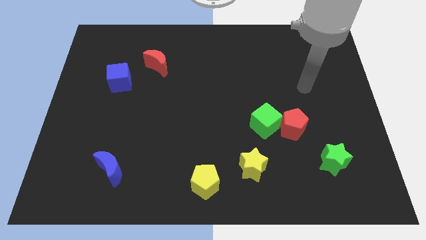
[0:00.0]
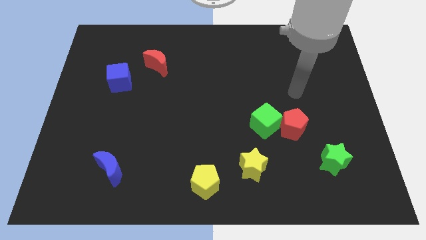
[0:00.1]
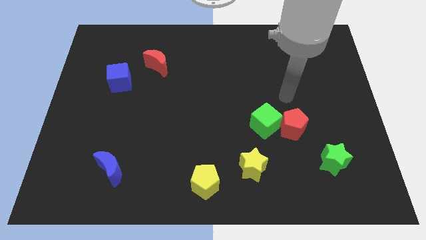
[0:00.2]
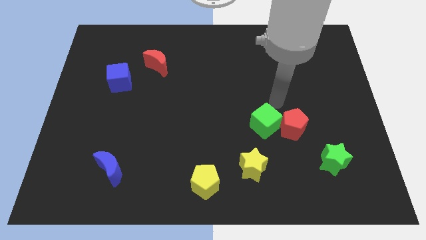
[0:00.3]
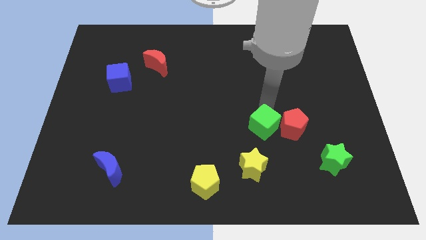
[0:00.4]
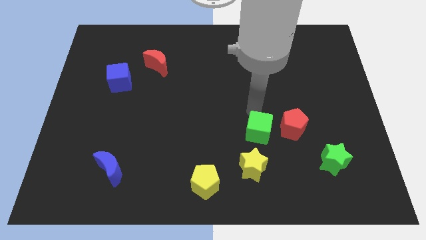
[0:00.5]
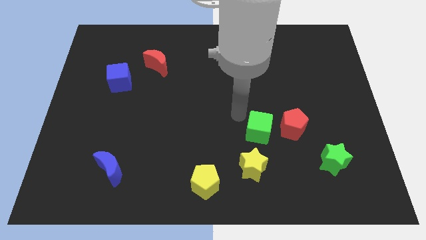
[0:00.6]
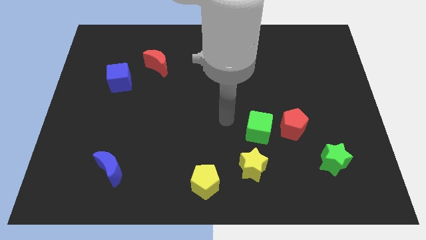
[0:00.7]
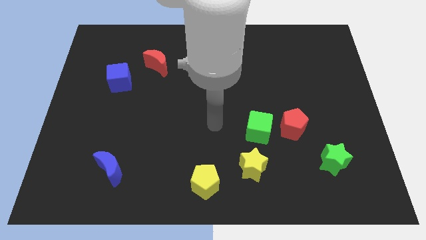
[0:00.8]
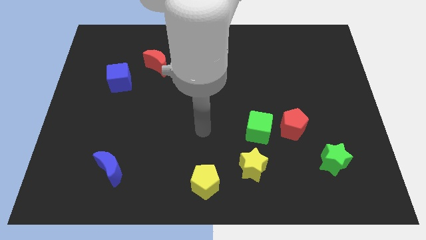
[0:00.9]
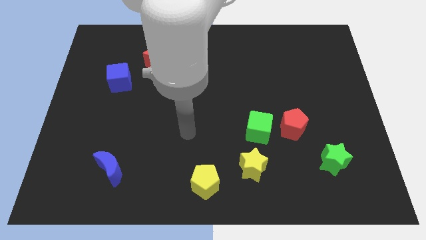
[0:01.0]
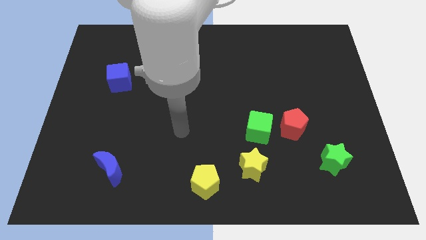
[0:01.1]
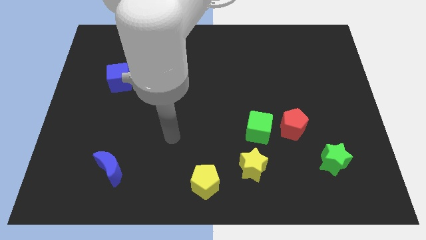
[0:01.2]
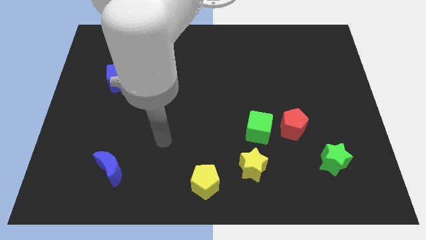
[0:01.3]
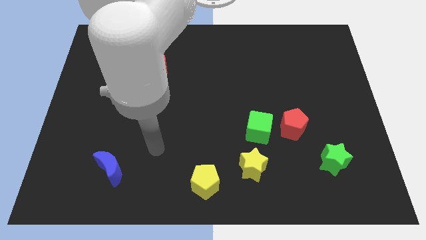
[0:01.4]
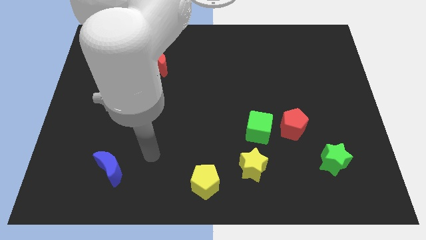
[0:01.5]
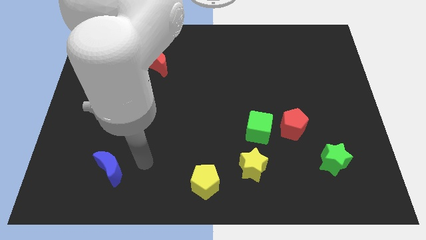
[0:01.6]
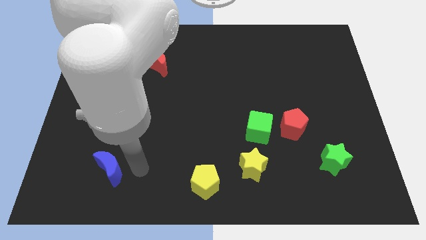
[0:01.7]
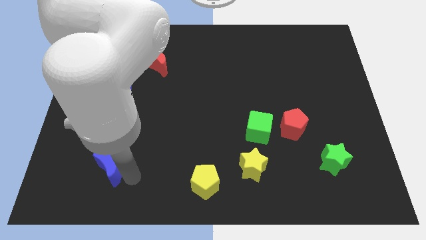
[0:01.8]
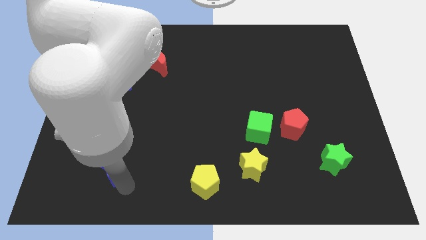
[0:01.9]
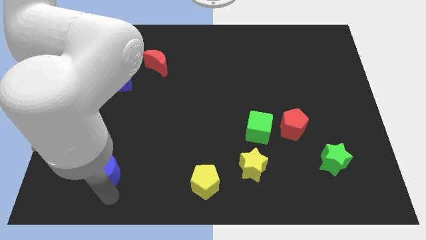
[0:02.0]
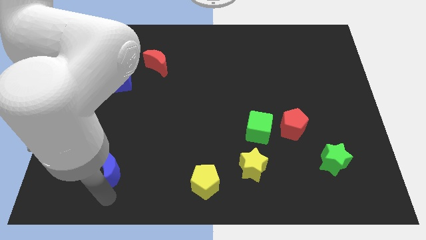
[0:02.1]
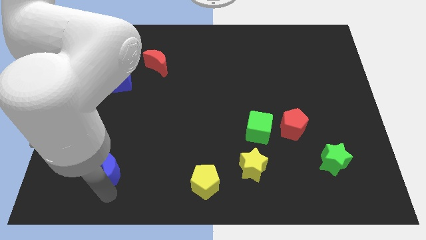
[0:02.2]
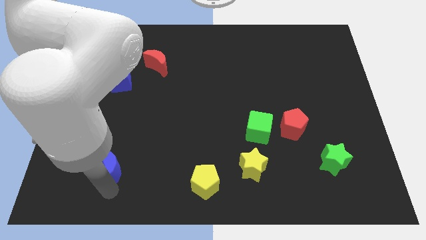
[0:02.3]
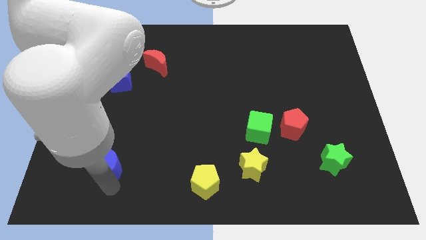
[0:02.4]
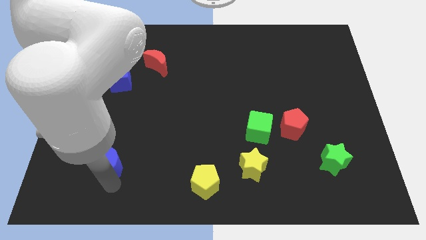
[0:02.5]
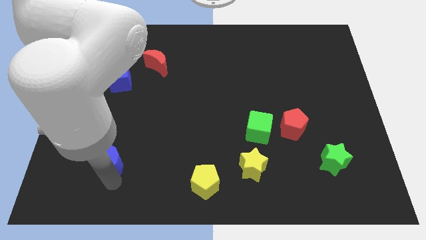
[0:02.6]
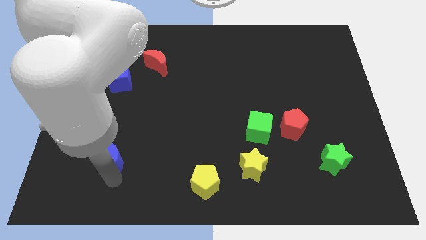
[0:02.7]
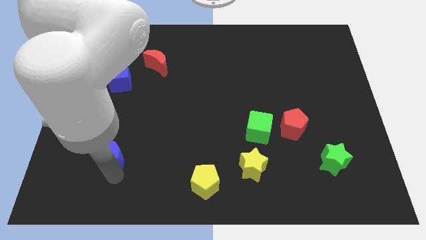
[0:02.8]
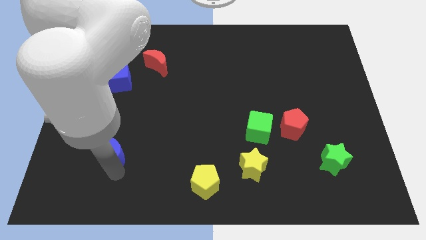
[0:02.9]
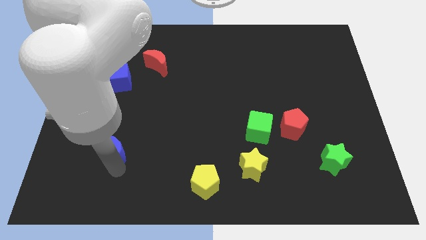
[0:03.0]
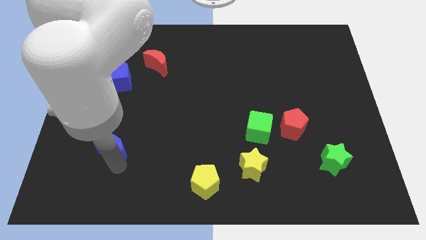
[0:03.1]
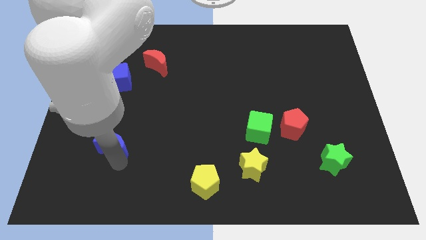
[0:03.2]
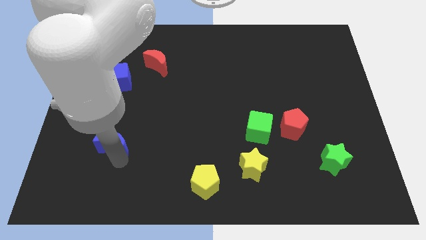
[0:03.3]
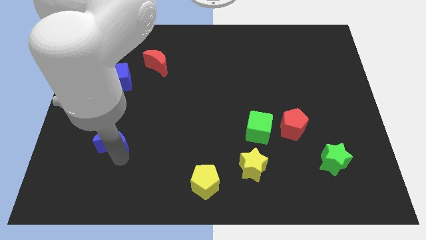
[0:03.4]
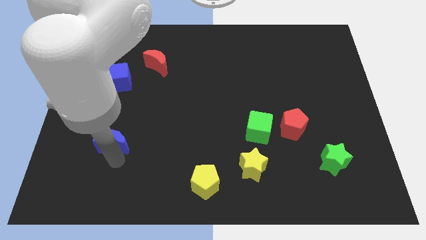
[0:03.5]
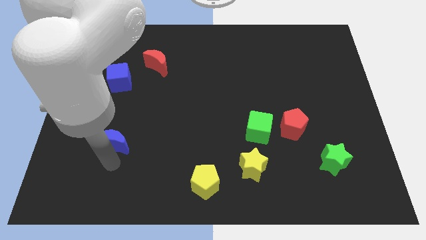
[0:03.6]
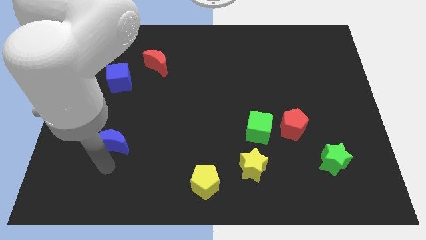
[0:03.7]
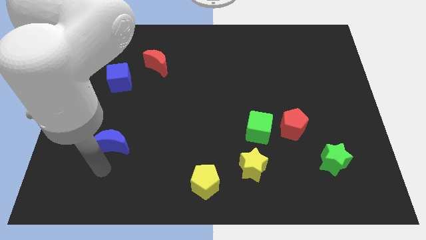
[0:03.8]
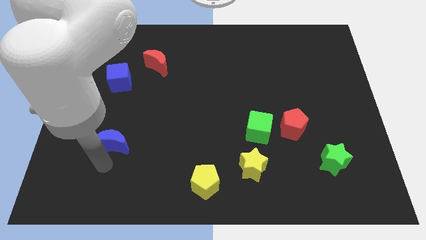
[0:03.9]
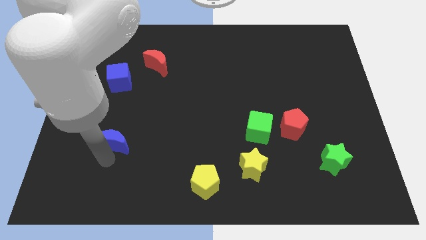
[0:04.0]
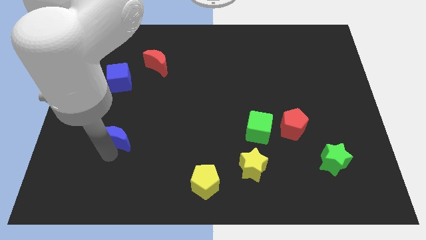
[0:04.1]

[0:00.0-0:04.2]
slightly slide the blue moon upwards

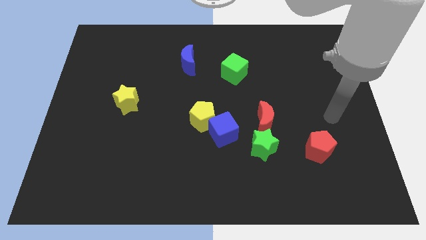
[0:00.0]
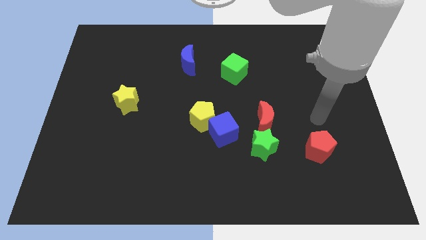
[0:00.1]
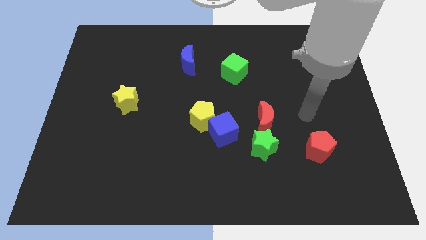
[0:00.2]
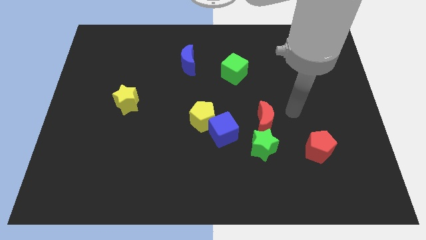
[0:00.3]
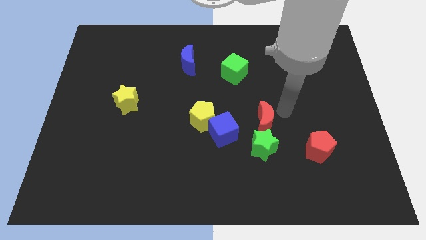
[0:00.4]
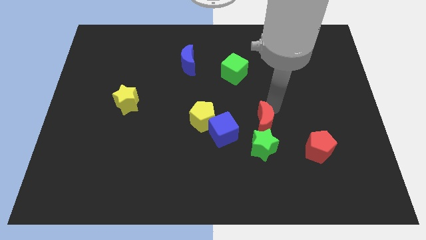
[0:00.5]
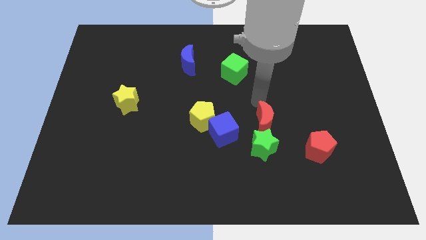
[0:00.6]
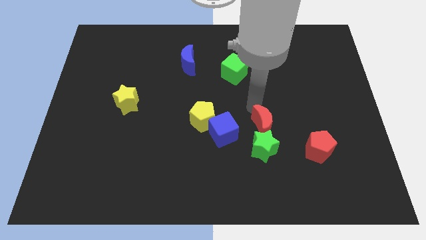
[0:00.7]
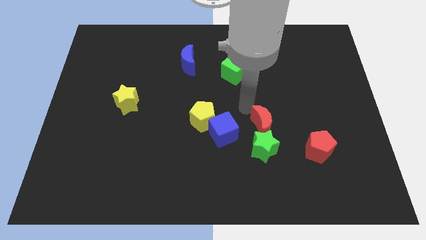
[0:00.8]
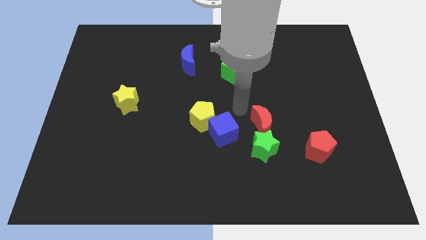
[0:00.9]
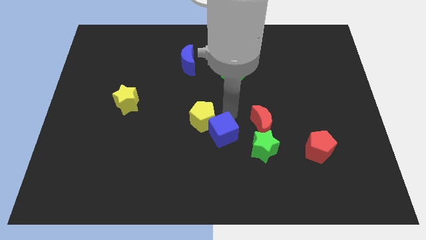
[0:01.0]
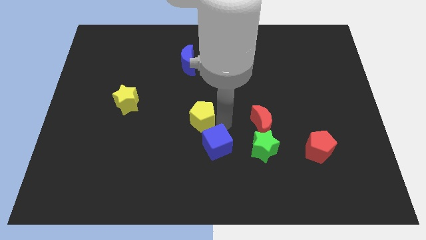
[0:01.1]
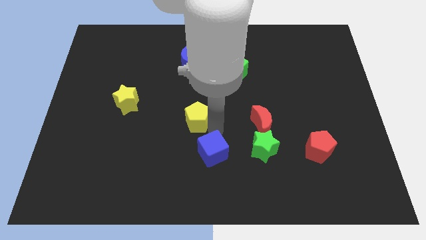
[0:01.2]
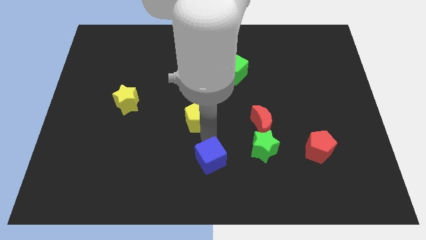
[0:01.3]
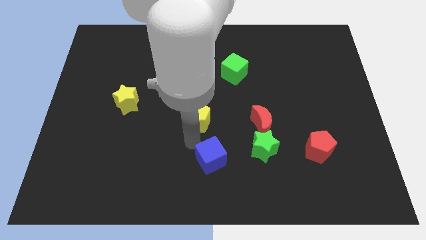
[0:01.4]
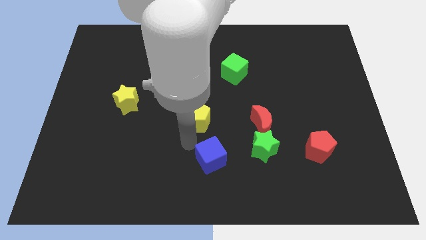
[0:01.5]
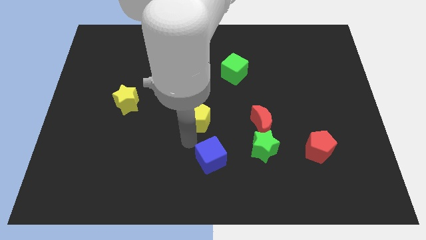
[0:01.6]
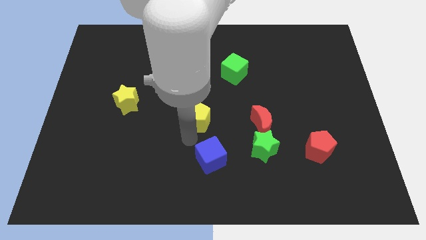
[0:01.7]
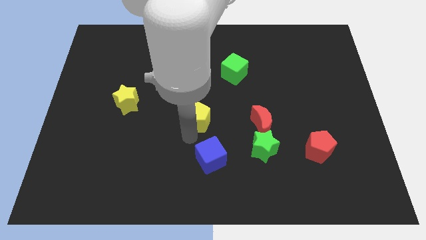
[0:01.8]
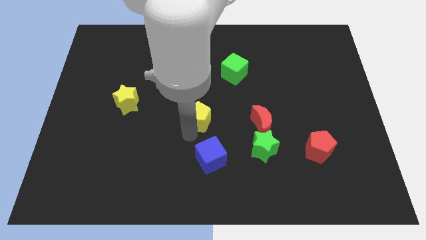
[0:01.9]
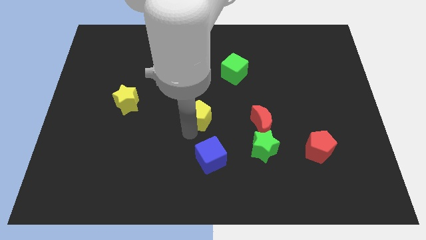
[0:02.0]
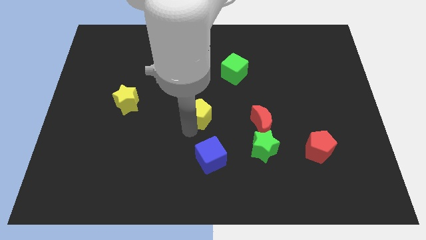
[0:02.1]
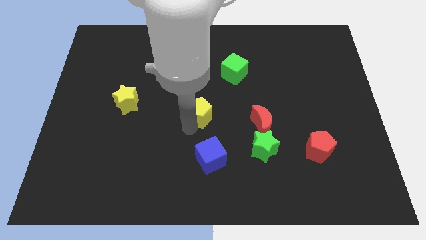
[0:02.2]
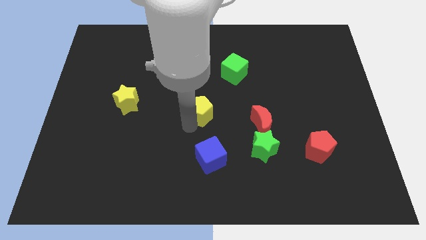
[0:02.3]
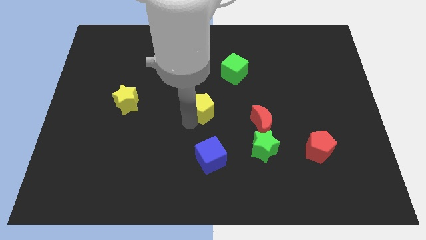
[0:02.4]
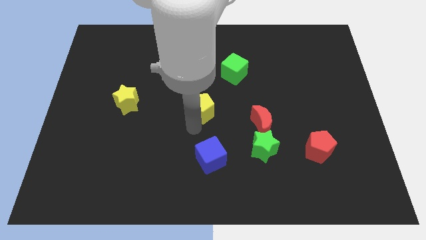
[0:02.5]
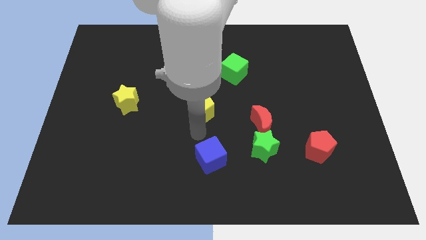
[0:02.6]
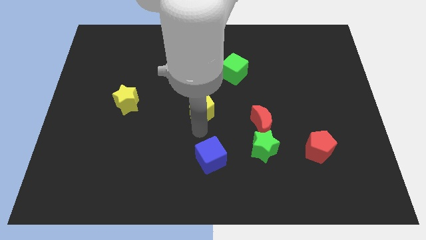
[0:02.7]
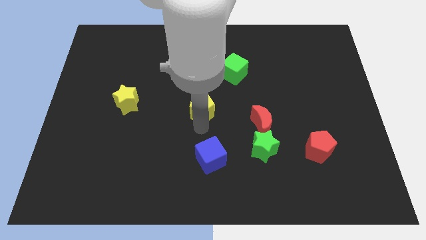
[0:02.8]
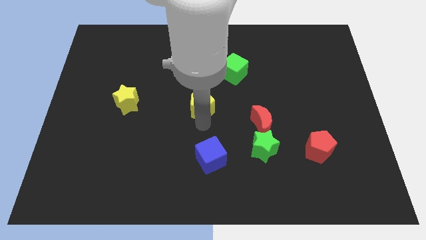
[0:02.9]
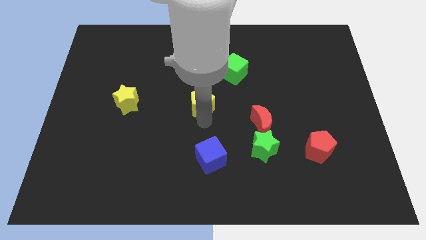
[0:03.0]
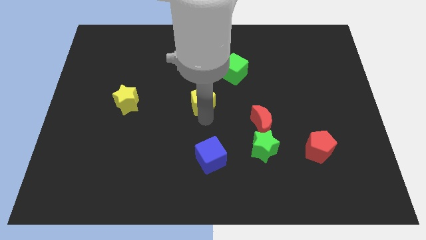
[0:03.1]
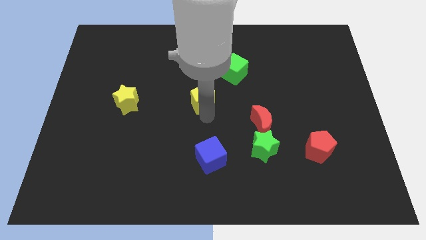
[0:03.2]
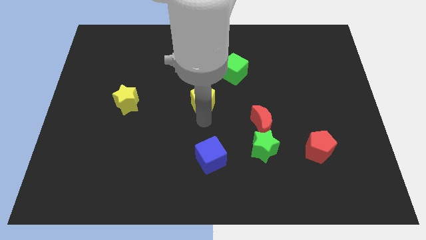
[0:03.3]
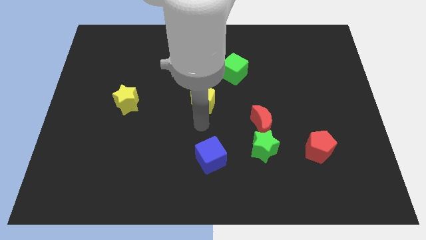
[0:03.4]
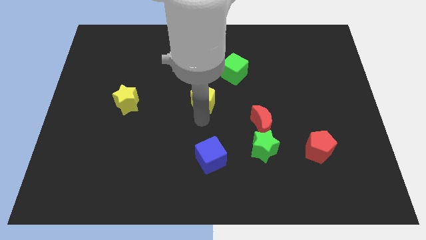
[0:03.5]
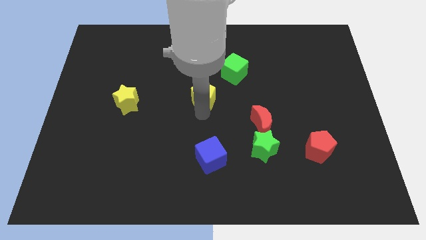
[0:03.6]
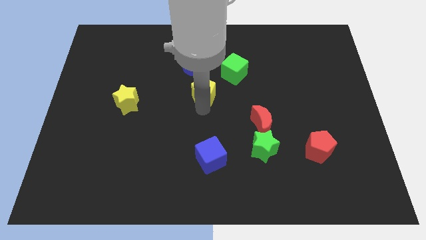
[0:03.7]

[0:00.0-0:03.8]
slightly push the yellow pentagon up
